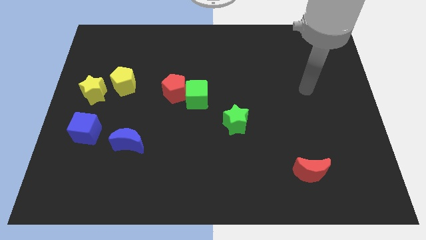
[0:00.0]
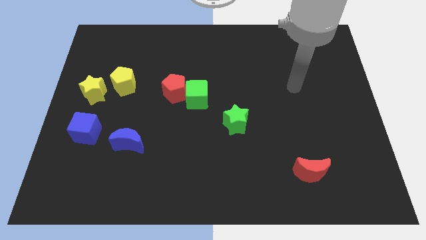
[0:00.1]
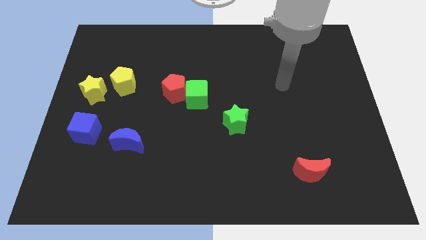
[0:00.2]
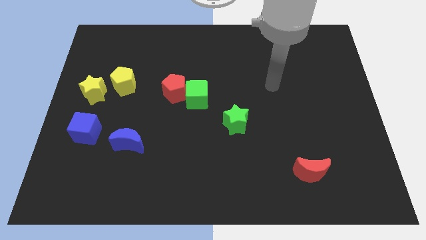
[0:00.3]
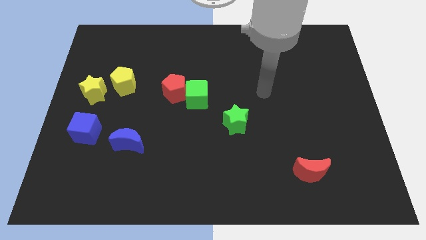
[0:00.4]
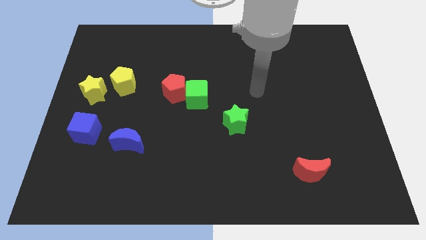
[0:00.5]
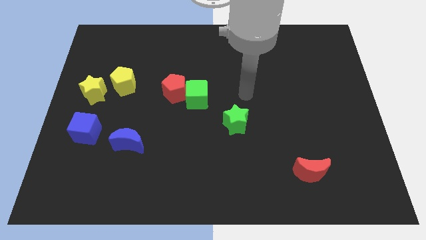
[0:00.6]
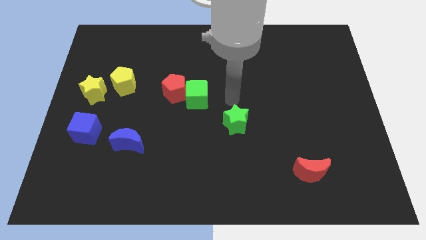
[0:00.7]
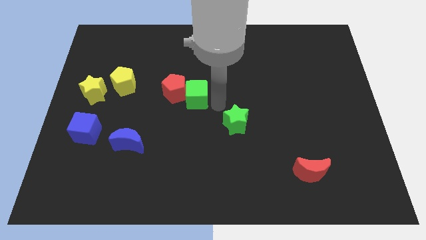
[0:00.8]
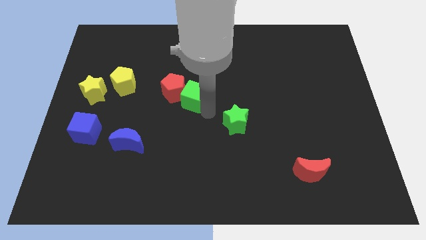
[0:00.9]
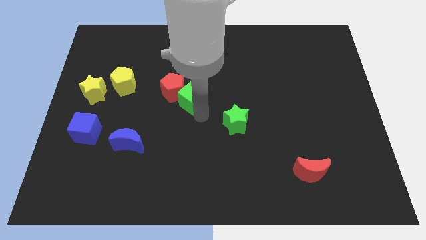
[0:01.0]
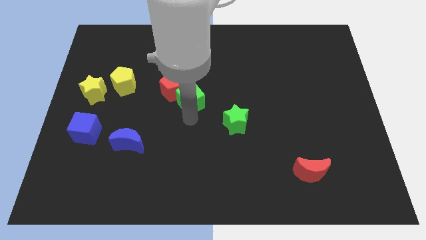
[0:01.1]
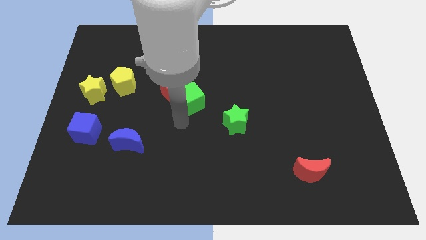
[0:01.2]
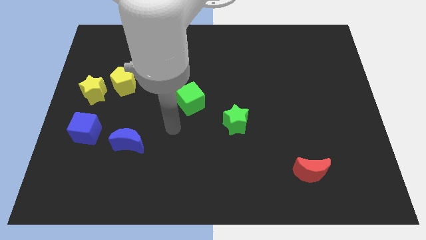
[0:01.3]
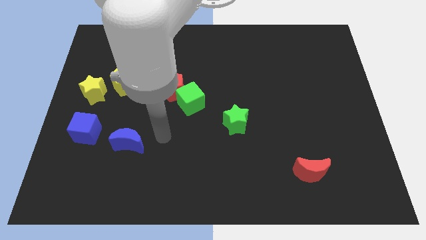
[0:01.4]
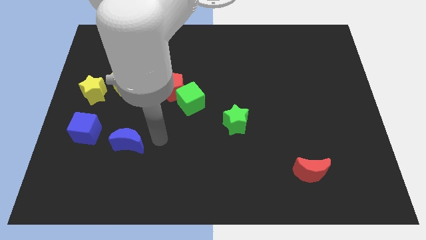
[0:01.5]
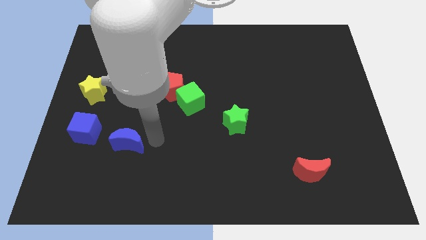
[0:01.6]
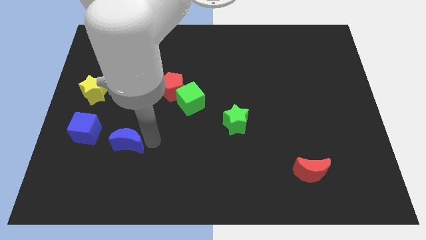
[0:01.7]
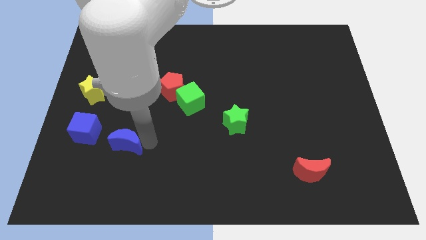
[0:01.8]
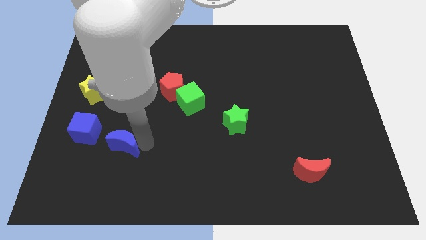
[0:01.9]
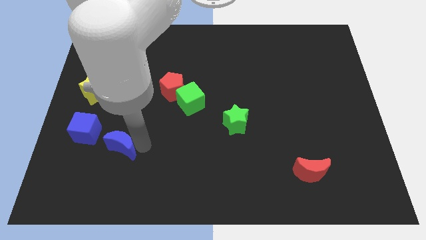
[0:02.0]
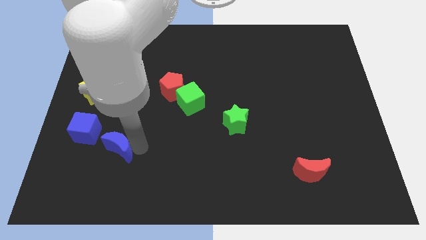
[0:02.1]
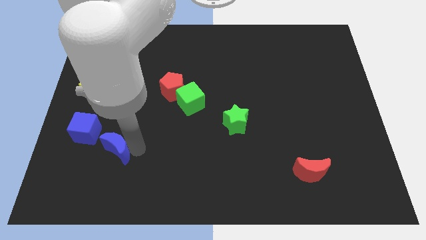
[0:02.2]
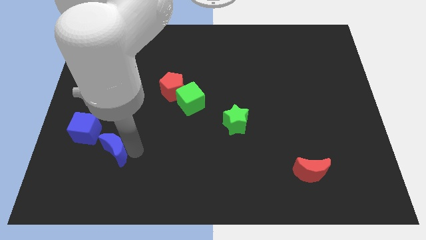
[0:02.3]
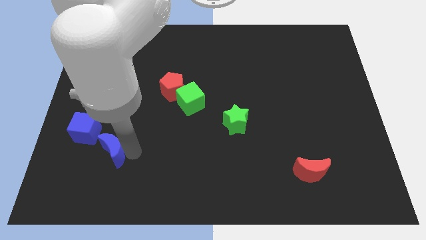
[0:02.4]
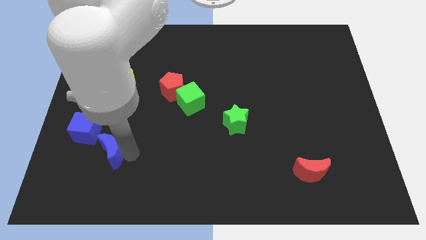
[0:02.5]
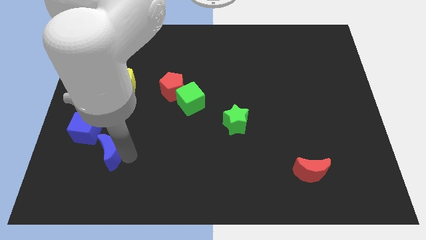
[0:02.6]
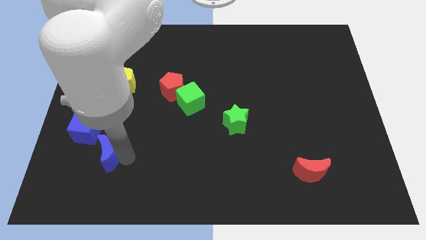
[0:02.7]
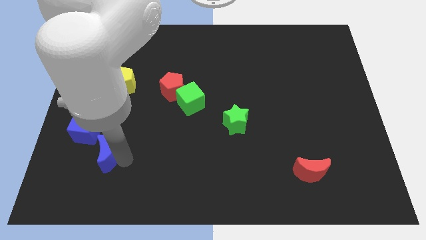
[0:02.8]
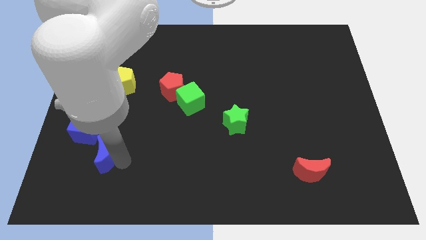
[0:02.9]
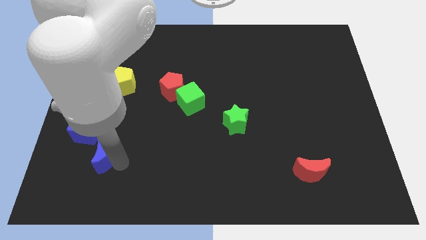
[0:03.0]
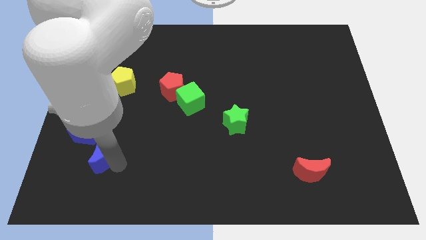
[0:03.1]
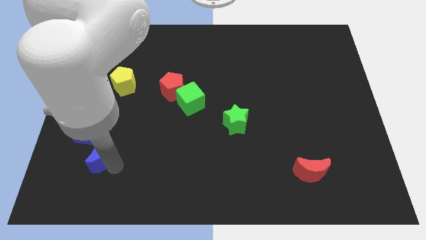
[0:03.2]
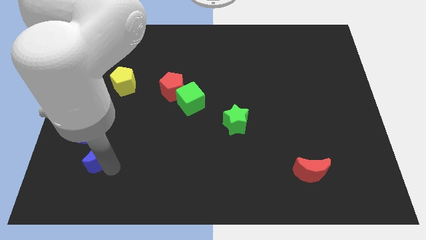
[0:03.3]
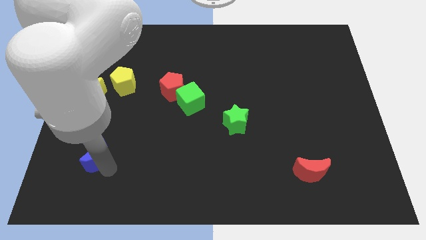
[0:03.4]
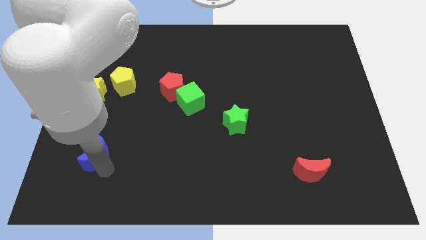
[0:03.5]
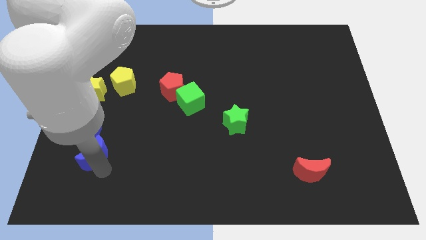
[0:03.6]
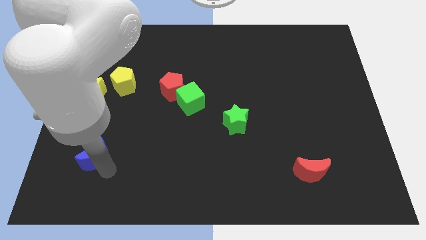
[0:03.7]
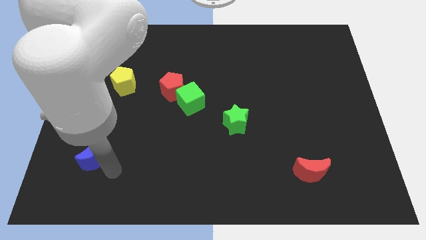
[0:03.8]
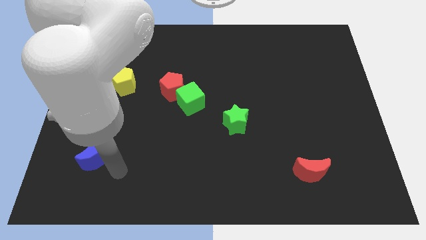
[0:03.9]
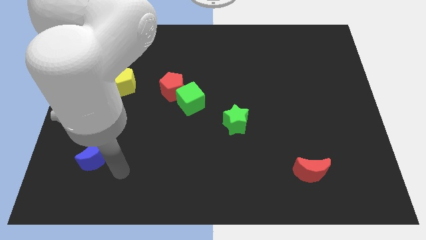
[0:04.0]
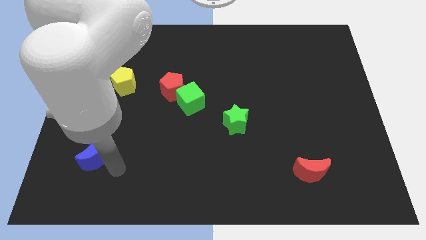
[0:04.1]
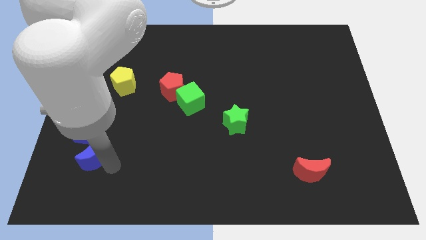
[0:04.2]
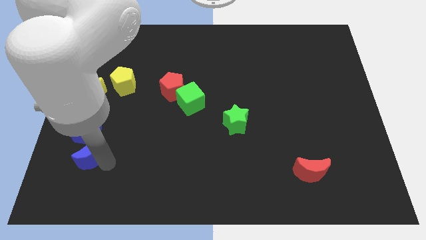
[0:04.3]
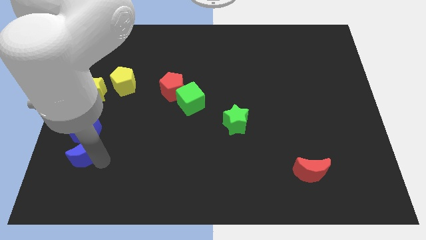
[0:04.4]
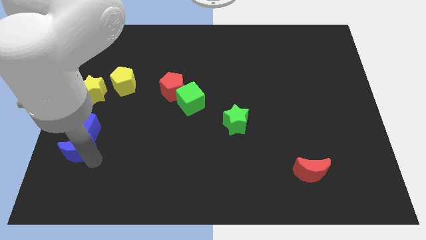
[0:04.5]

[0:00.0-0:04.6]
move the blue moon to the bottom side of the yellow star

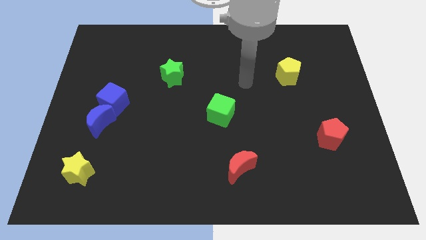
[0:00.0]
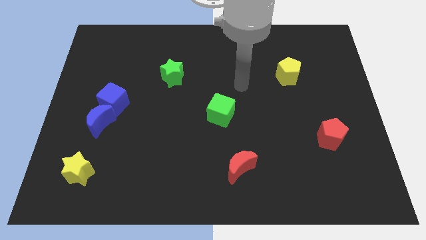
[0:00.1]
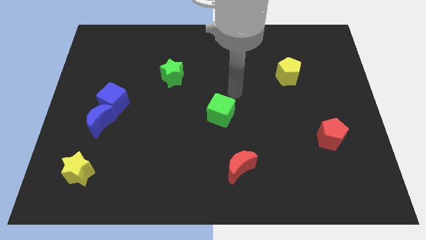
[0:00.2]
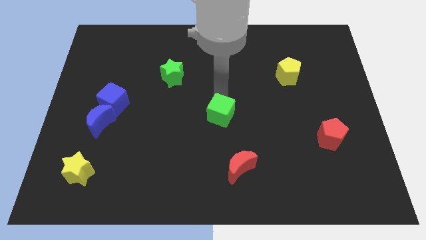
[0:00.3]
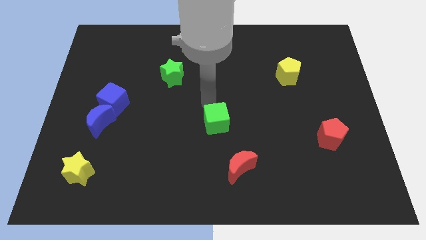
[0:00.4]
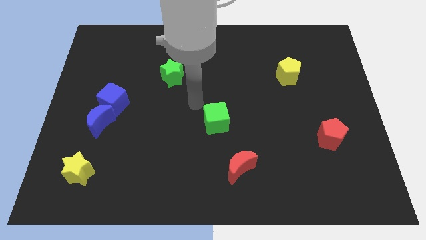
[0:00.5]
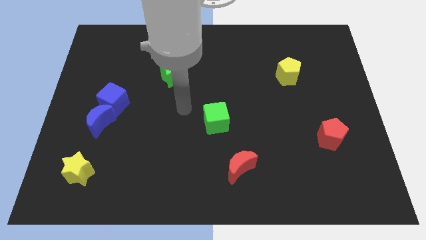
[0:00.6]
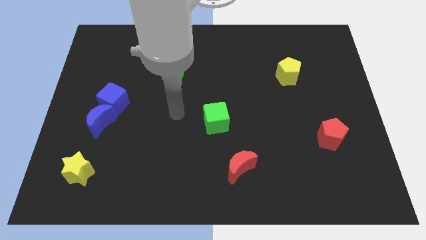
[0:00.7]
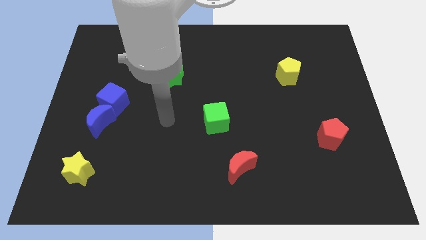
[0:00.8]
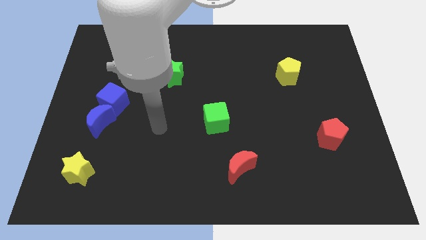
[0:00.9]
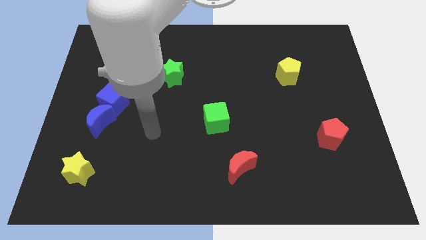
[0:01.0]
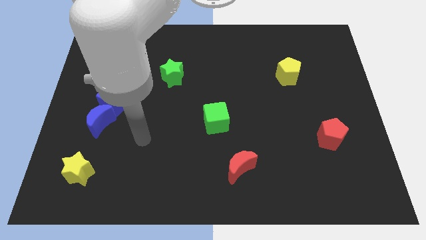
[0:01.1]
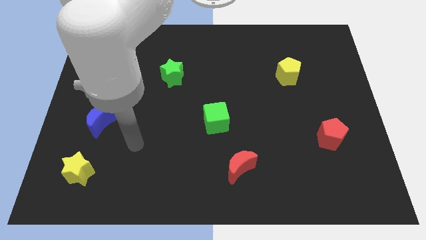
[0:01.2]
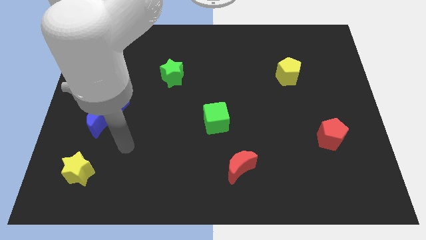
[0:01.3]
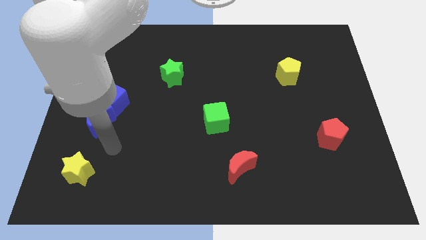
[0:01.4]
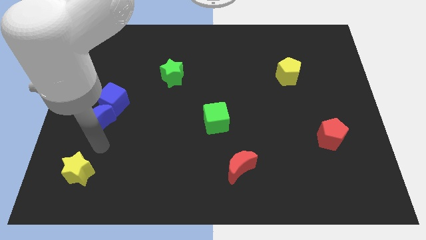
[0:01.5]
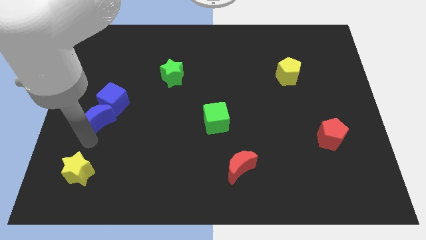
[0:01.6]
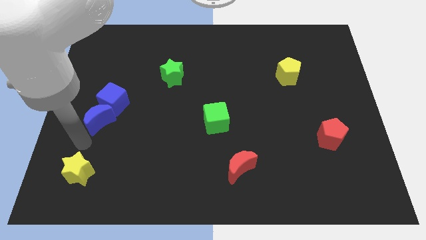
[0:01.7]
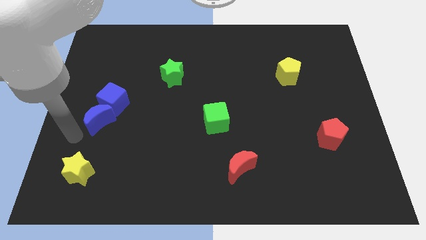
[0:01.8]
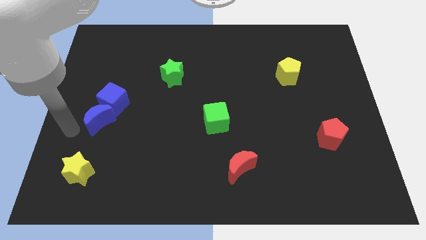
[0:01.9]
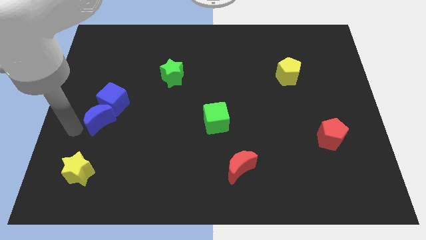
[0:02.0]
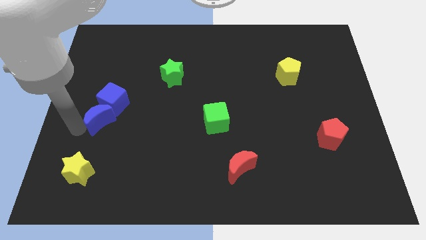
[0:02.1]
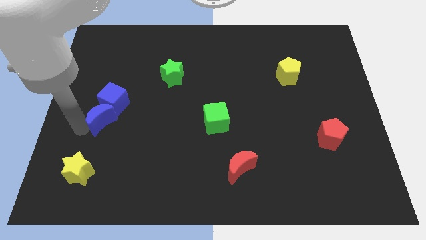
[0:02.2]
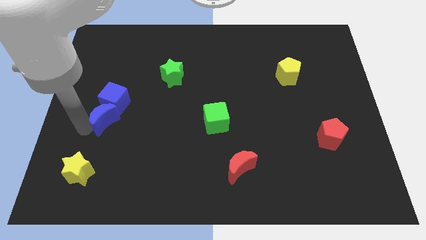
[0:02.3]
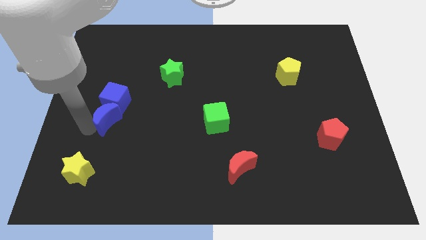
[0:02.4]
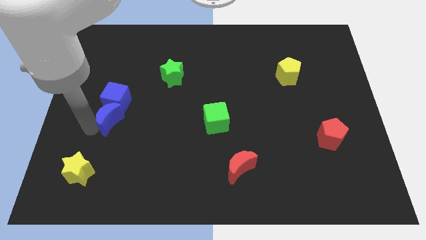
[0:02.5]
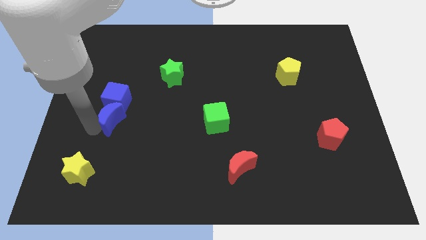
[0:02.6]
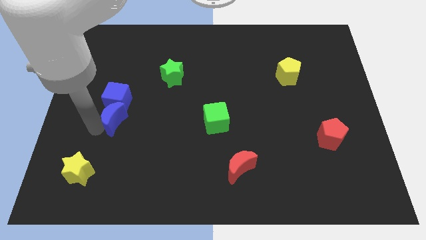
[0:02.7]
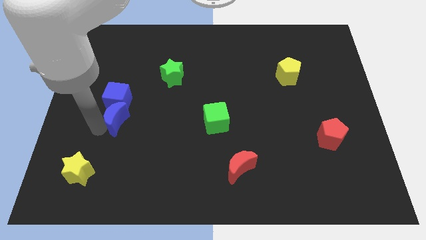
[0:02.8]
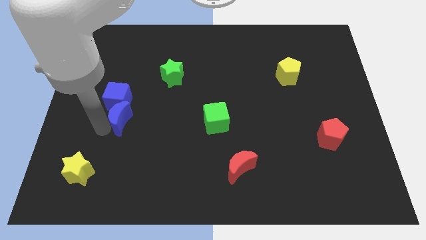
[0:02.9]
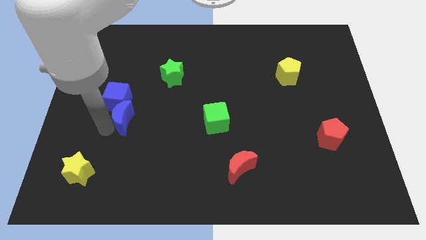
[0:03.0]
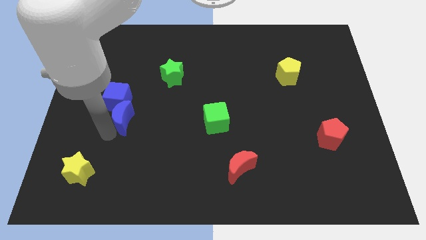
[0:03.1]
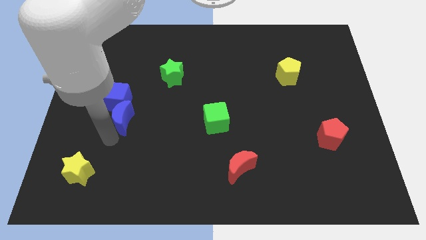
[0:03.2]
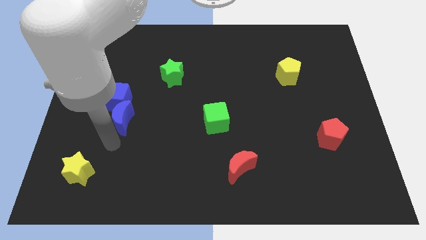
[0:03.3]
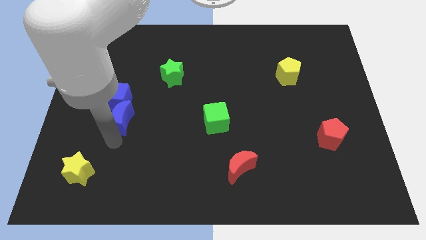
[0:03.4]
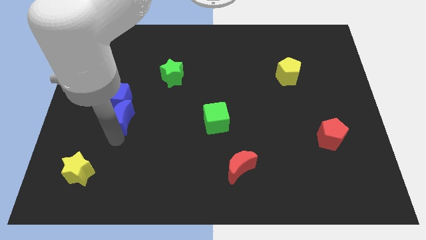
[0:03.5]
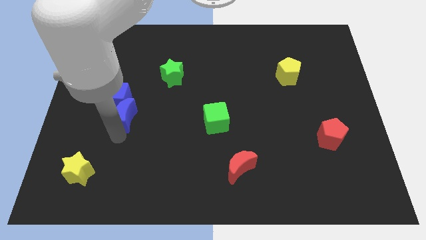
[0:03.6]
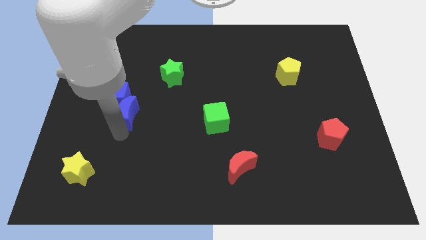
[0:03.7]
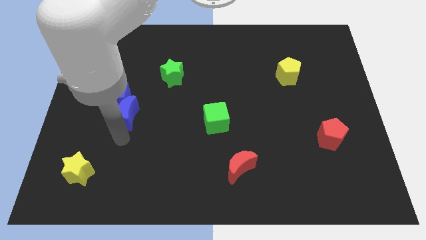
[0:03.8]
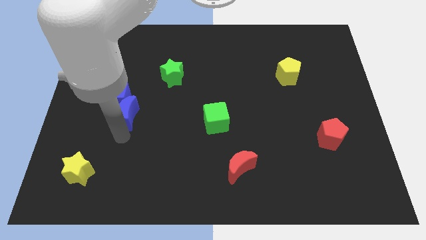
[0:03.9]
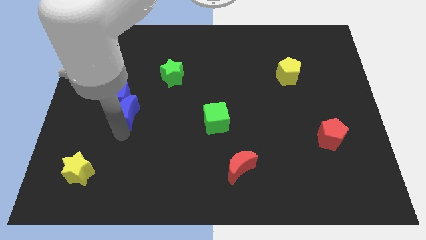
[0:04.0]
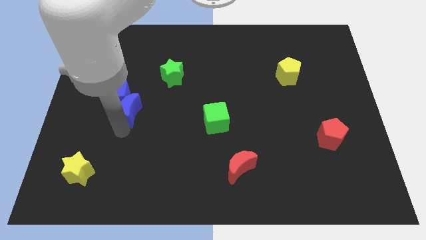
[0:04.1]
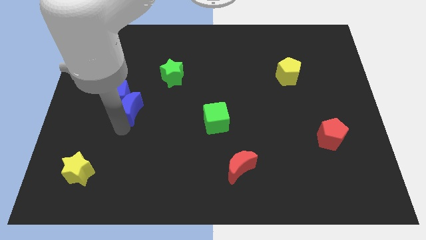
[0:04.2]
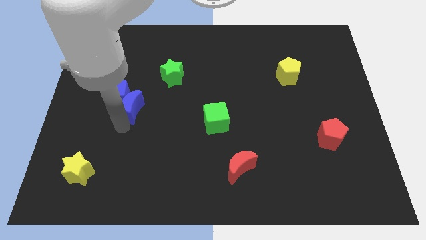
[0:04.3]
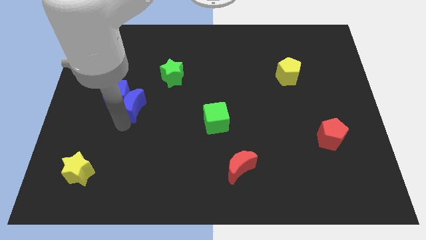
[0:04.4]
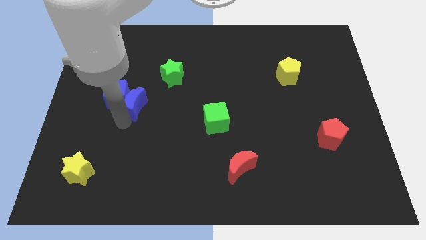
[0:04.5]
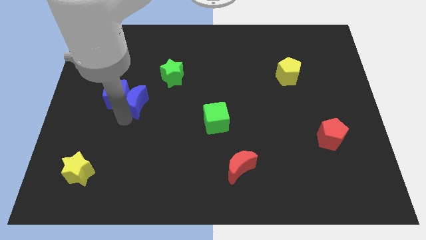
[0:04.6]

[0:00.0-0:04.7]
move the blue moon to the top right side of the blue cube
